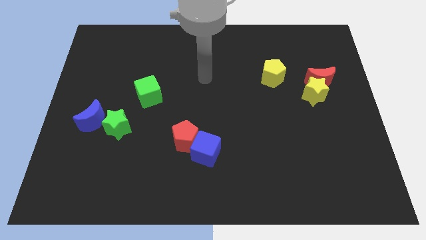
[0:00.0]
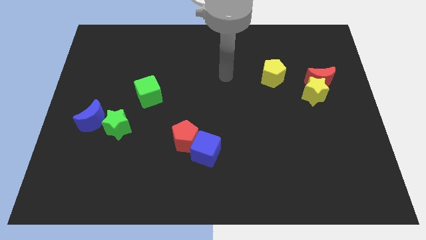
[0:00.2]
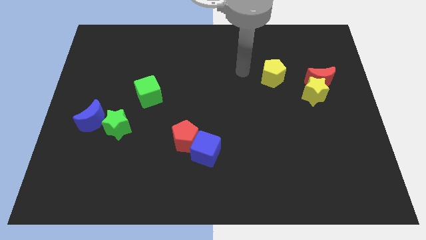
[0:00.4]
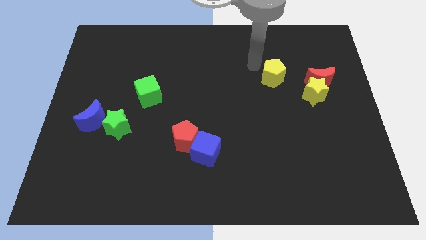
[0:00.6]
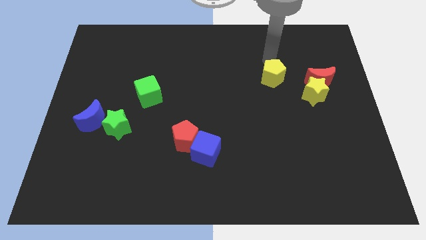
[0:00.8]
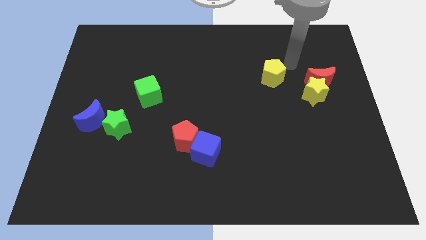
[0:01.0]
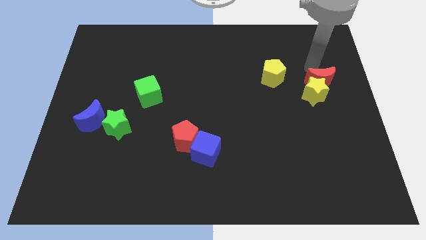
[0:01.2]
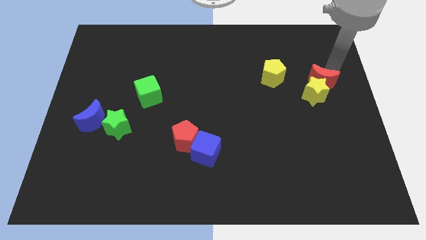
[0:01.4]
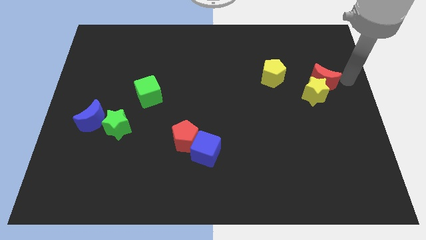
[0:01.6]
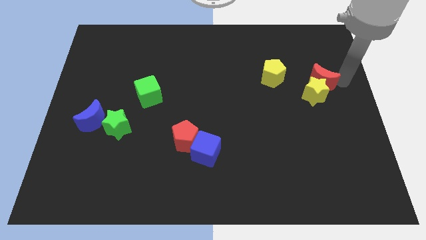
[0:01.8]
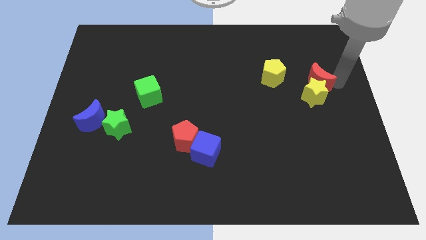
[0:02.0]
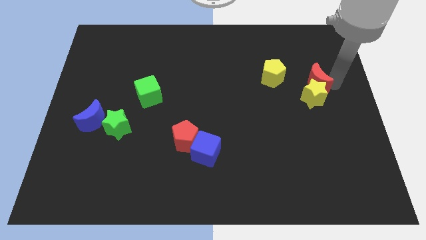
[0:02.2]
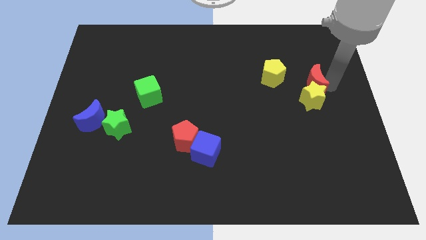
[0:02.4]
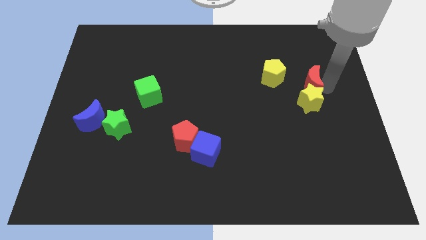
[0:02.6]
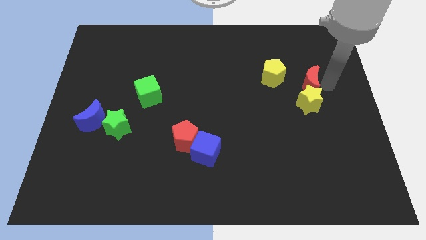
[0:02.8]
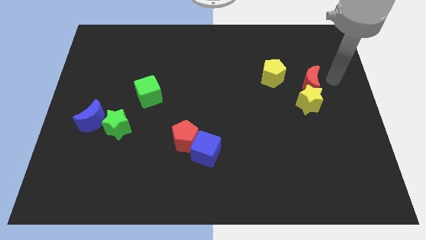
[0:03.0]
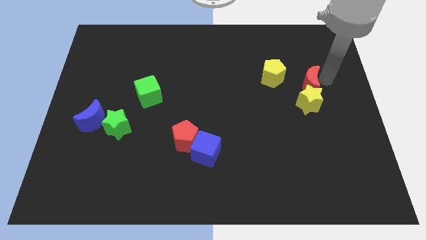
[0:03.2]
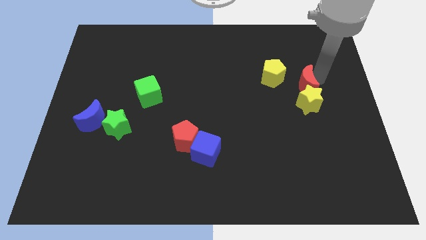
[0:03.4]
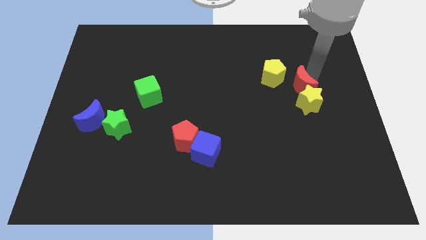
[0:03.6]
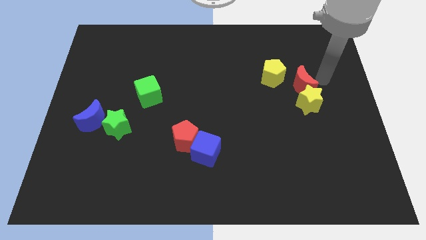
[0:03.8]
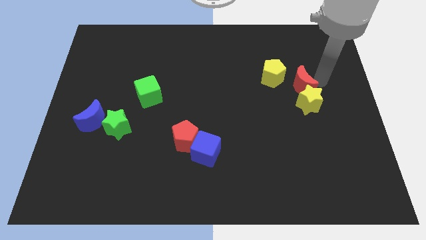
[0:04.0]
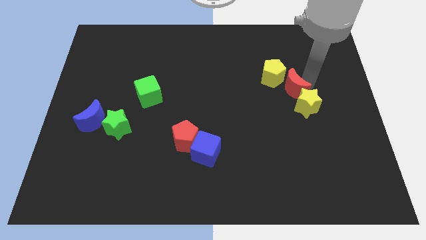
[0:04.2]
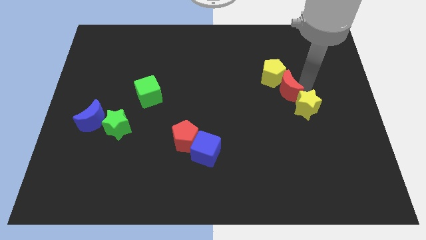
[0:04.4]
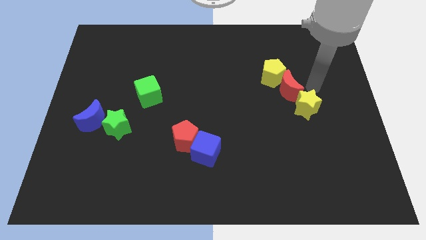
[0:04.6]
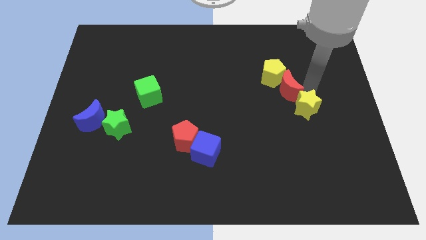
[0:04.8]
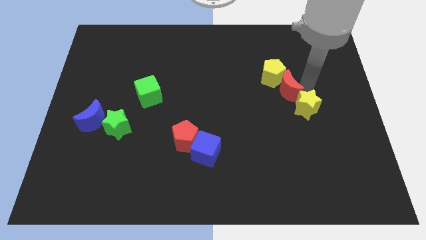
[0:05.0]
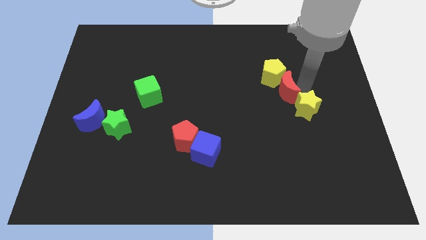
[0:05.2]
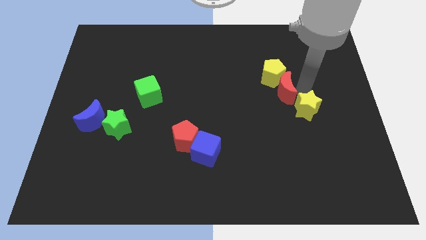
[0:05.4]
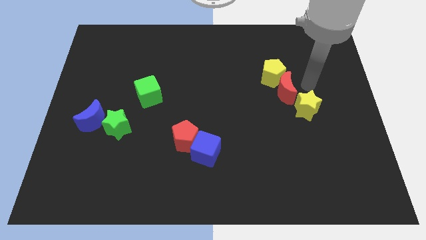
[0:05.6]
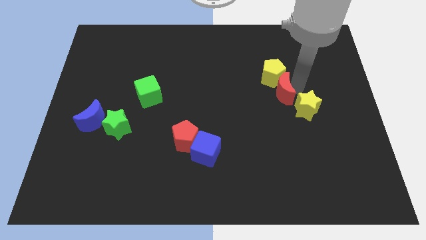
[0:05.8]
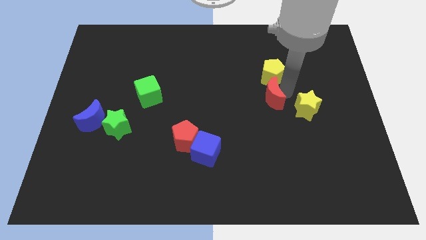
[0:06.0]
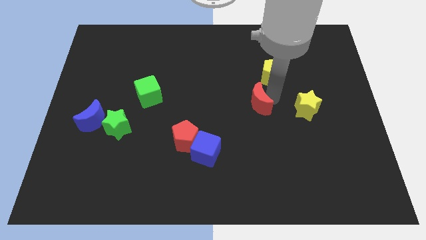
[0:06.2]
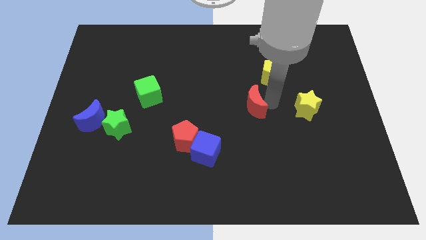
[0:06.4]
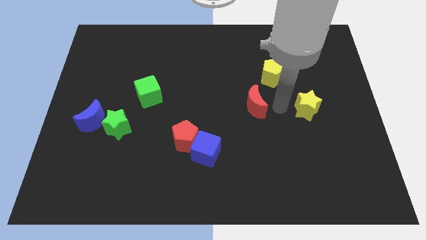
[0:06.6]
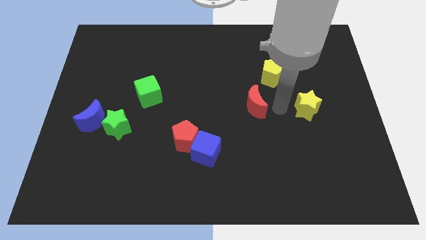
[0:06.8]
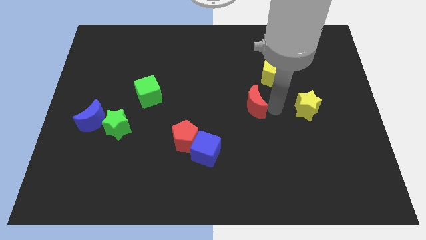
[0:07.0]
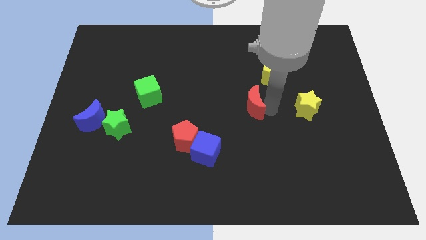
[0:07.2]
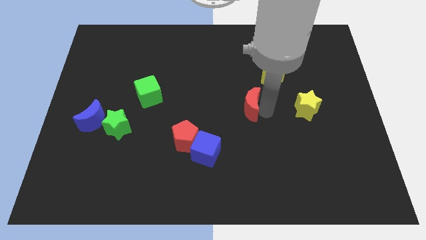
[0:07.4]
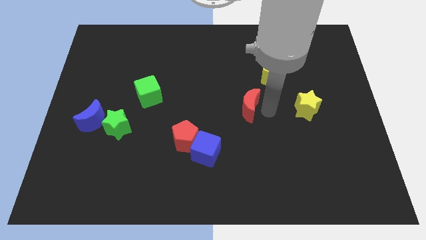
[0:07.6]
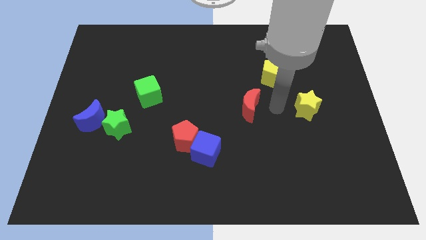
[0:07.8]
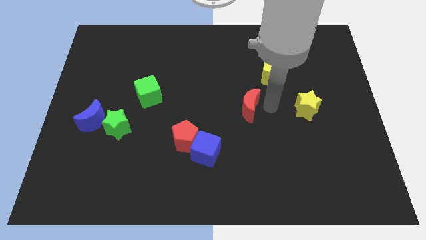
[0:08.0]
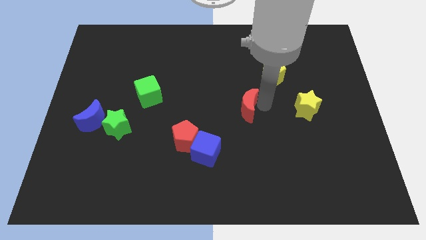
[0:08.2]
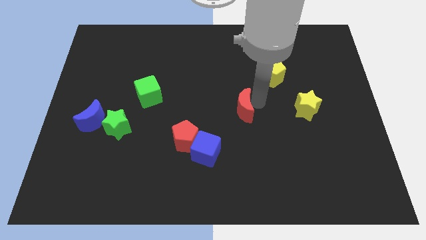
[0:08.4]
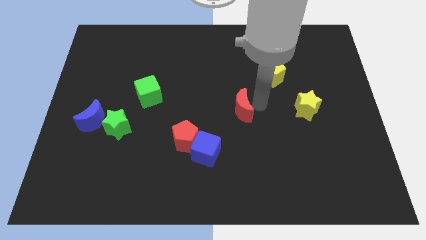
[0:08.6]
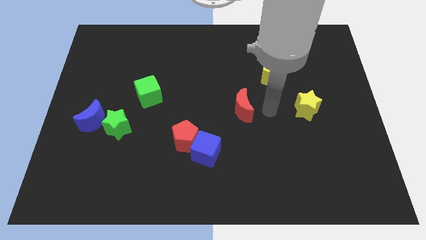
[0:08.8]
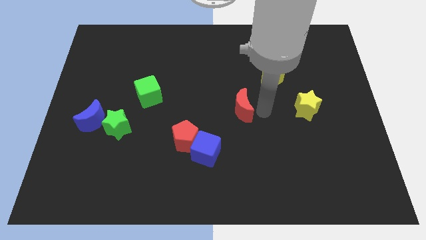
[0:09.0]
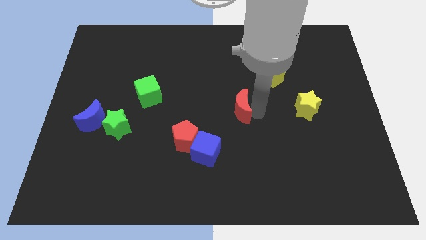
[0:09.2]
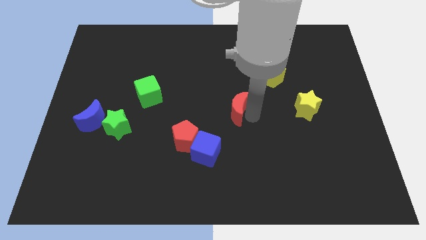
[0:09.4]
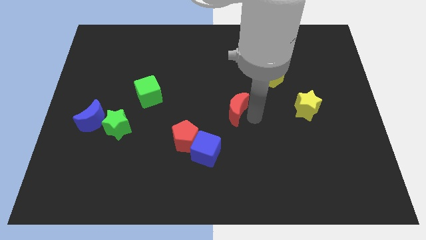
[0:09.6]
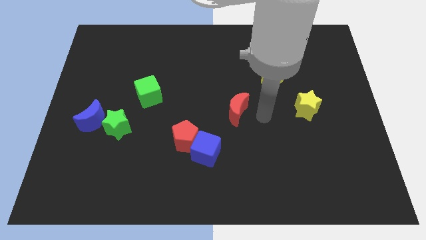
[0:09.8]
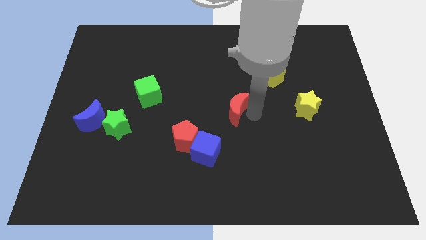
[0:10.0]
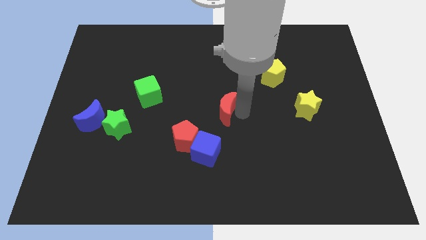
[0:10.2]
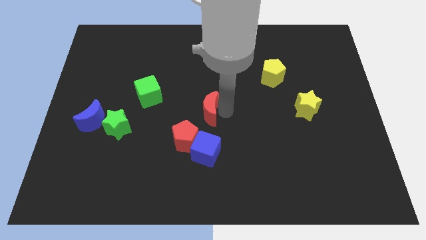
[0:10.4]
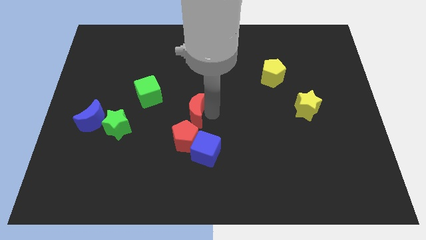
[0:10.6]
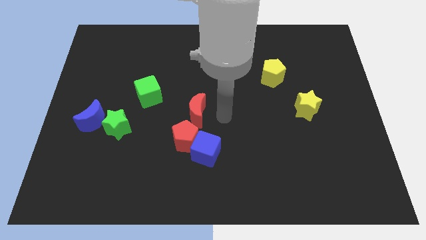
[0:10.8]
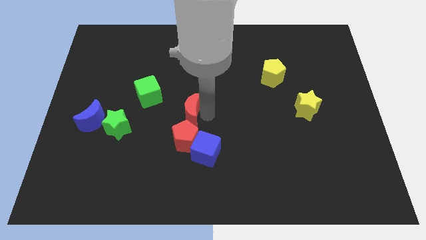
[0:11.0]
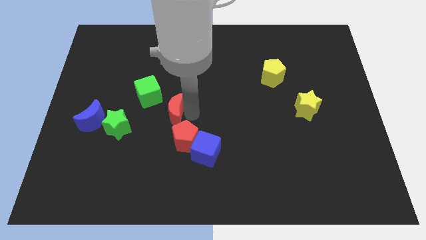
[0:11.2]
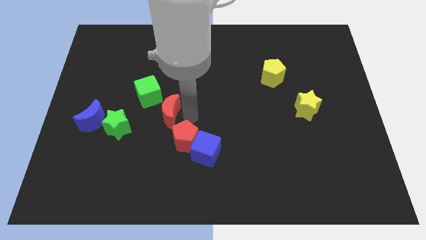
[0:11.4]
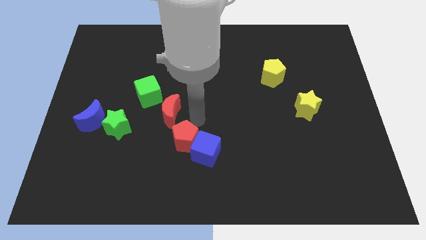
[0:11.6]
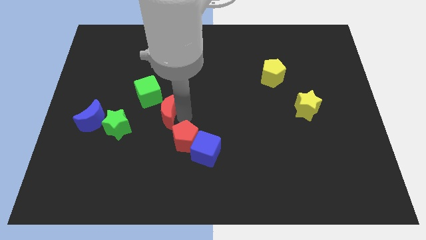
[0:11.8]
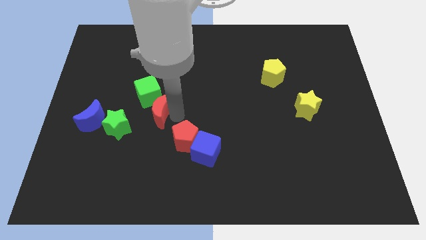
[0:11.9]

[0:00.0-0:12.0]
put the red moon diagonally up and to the right of the green star

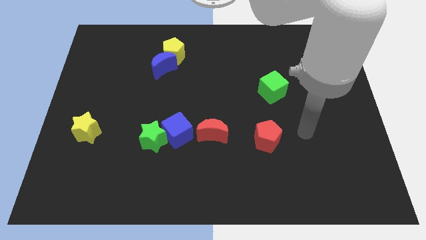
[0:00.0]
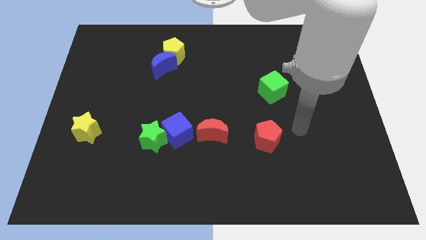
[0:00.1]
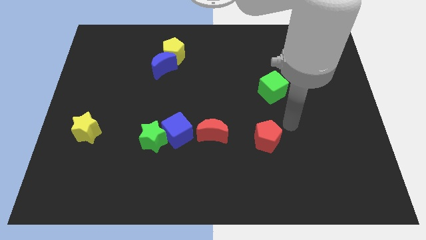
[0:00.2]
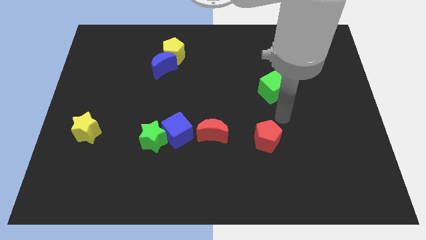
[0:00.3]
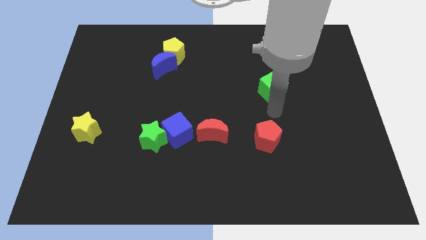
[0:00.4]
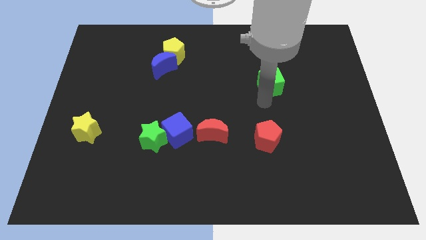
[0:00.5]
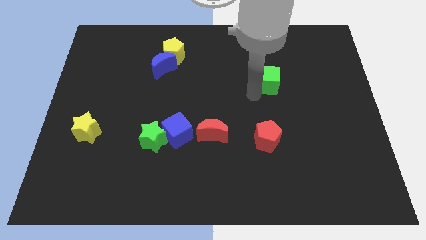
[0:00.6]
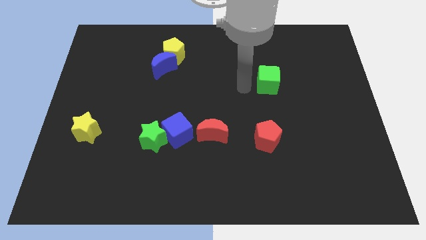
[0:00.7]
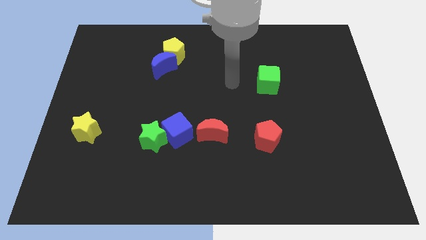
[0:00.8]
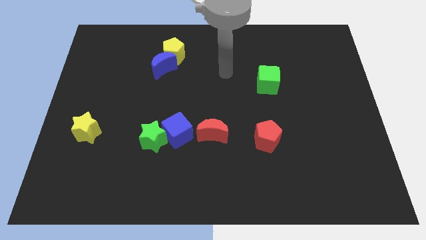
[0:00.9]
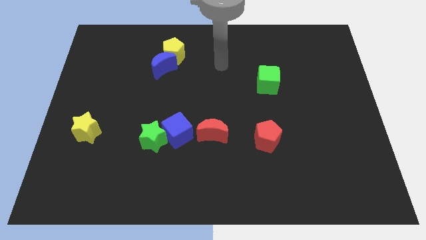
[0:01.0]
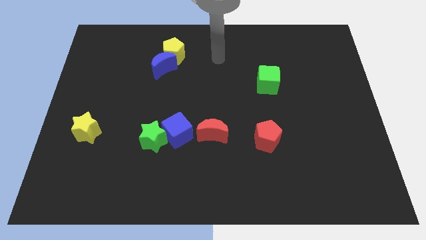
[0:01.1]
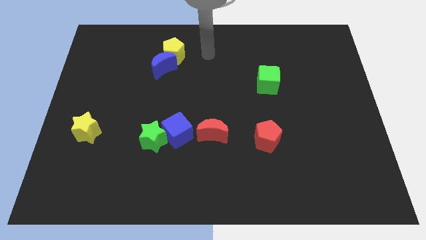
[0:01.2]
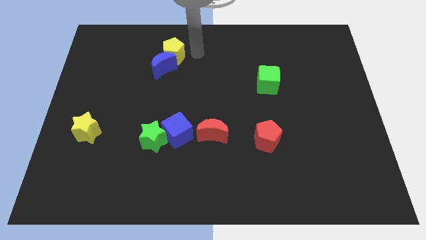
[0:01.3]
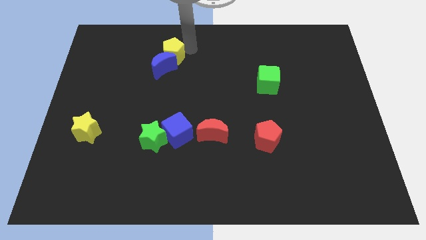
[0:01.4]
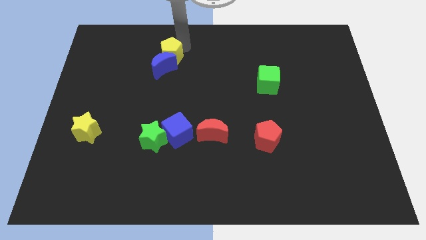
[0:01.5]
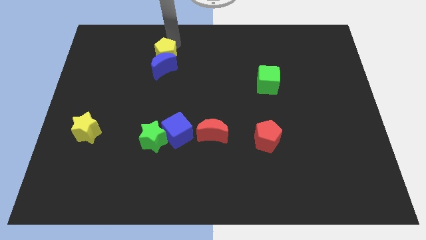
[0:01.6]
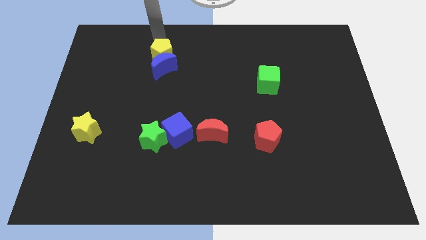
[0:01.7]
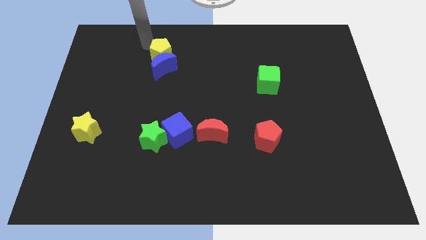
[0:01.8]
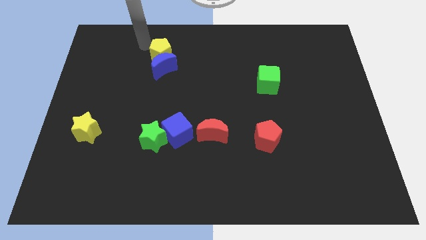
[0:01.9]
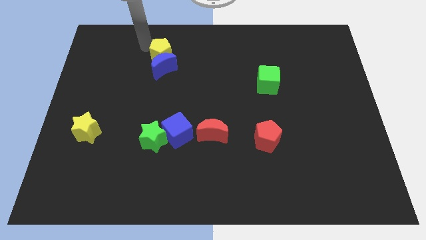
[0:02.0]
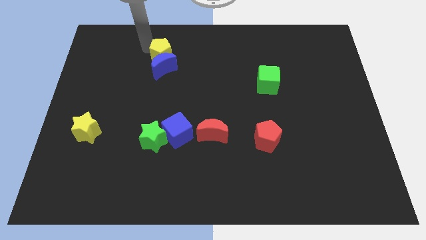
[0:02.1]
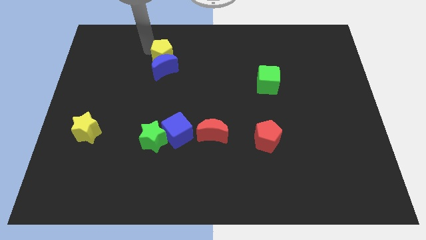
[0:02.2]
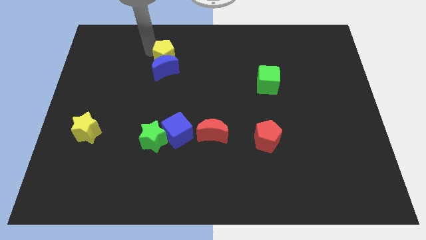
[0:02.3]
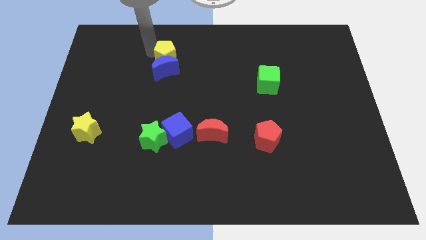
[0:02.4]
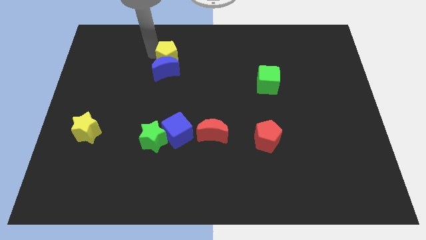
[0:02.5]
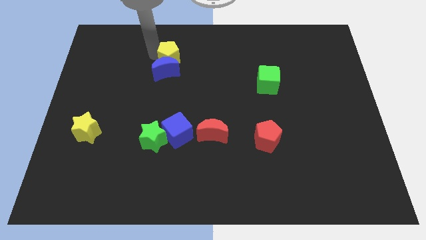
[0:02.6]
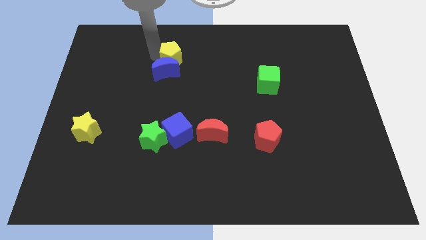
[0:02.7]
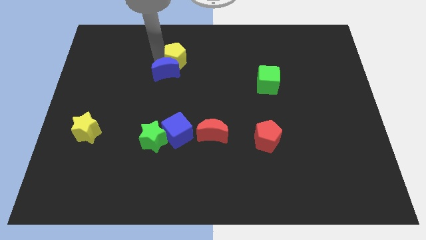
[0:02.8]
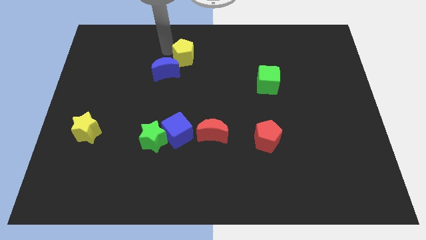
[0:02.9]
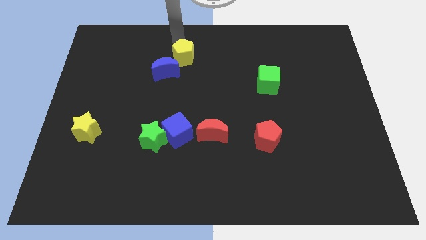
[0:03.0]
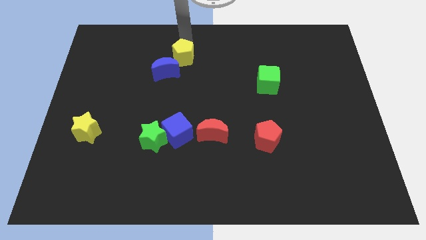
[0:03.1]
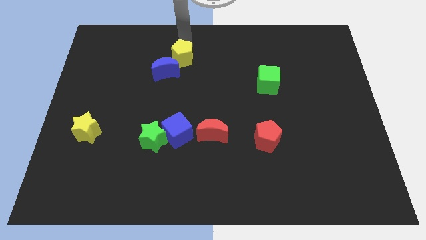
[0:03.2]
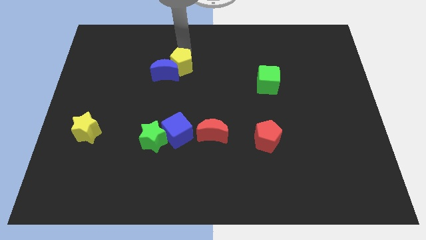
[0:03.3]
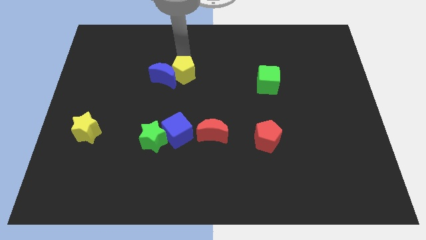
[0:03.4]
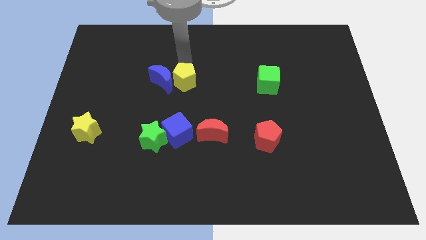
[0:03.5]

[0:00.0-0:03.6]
put the yellow pentagon above the blue cube
